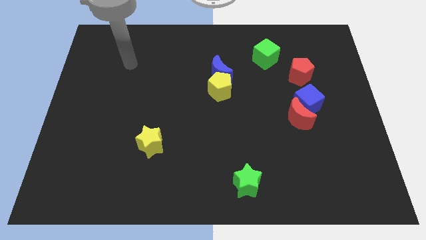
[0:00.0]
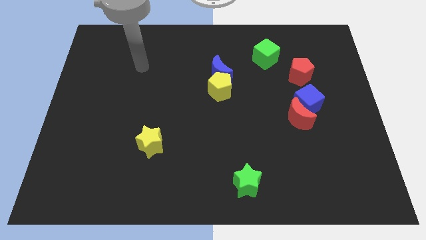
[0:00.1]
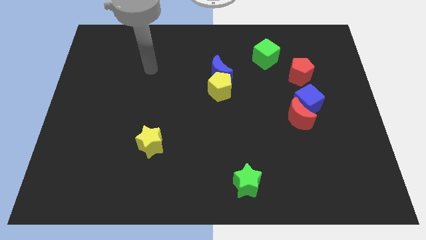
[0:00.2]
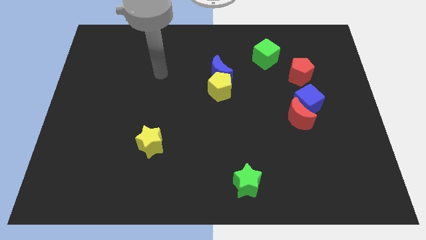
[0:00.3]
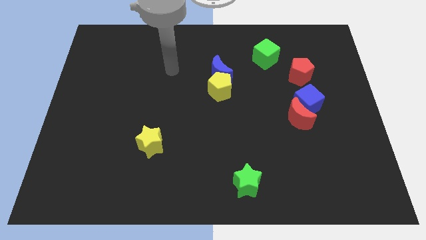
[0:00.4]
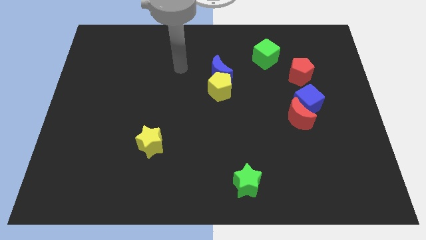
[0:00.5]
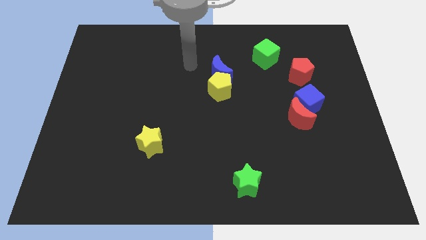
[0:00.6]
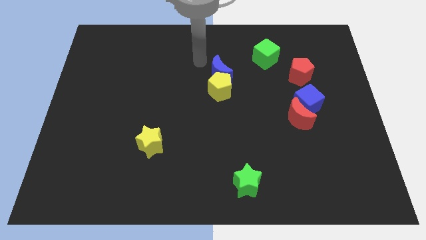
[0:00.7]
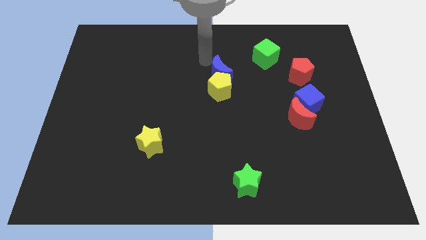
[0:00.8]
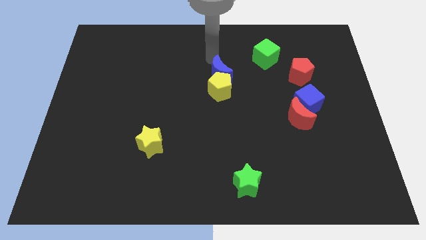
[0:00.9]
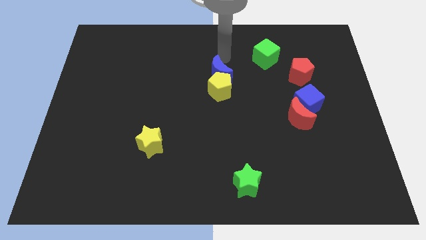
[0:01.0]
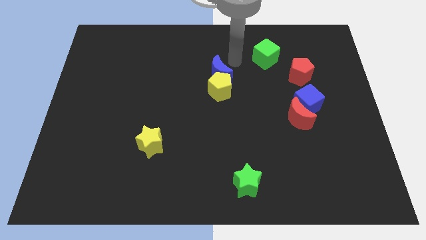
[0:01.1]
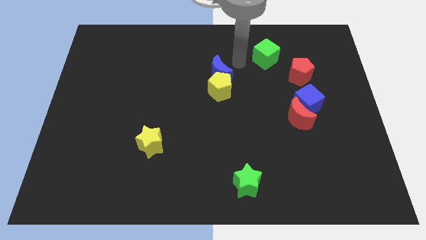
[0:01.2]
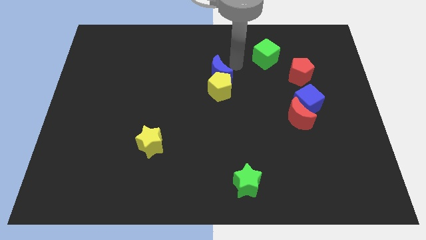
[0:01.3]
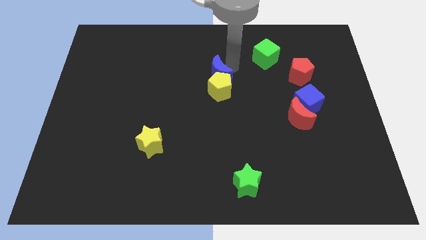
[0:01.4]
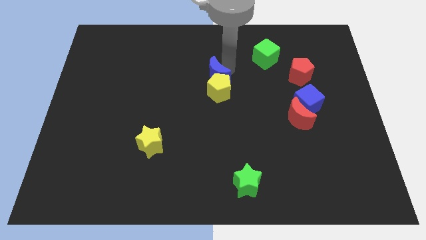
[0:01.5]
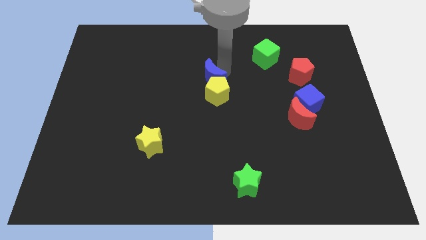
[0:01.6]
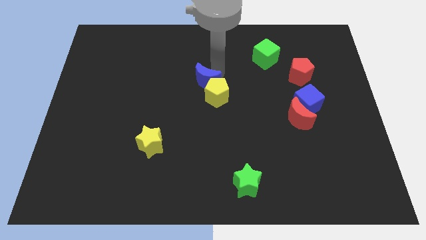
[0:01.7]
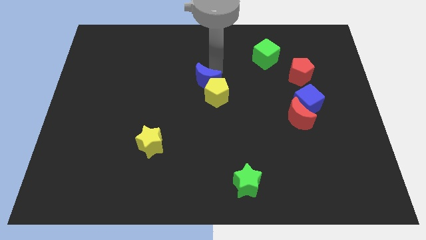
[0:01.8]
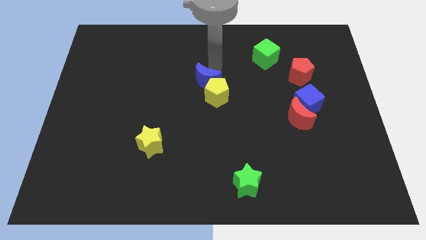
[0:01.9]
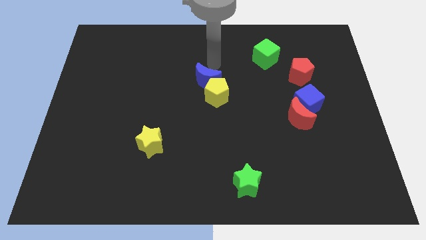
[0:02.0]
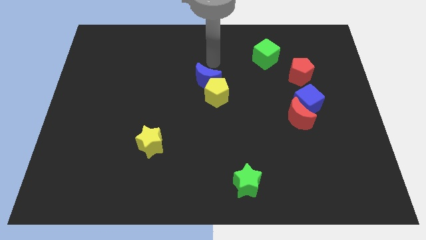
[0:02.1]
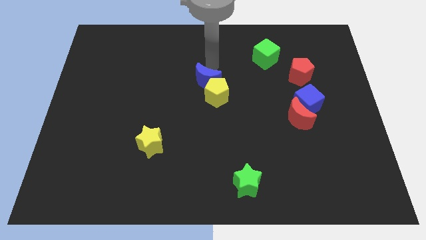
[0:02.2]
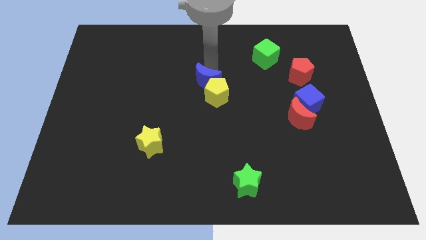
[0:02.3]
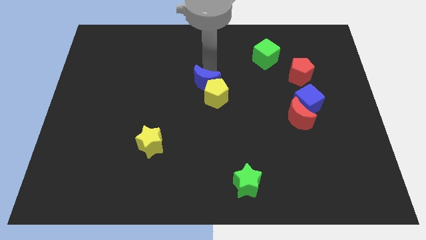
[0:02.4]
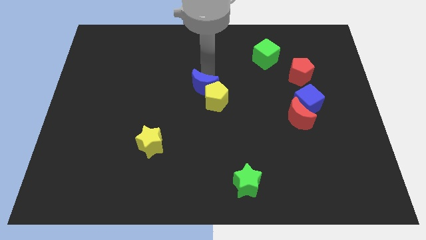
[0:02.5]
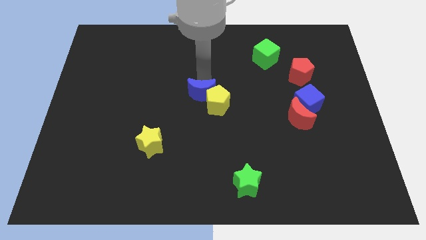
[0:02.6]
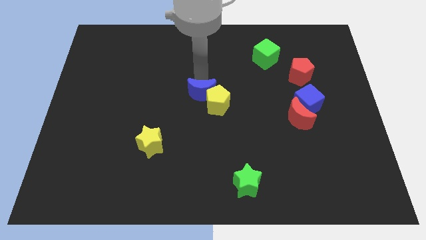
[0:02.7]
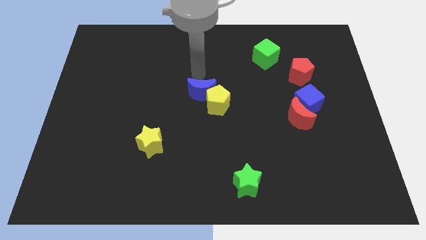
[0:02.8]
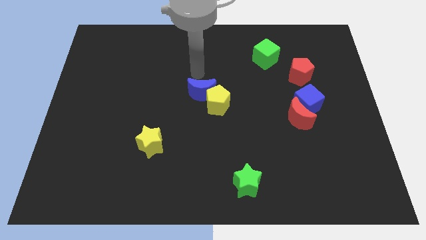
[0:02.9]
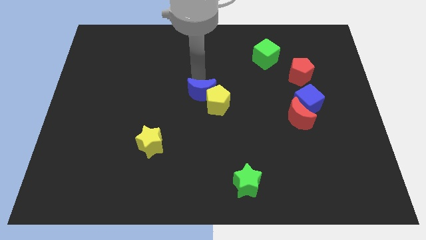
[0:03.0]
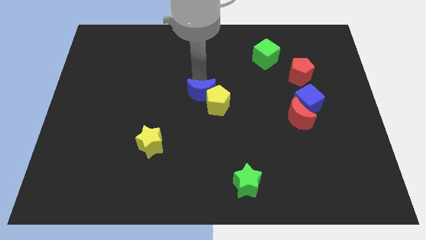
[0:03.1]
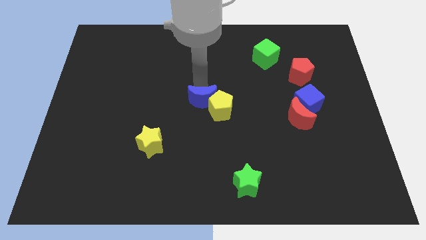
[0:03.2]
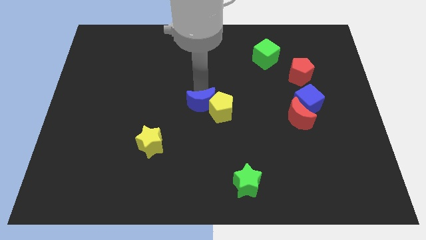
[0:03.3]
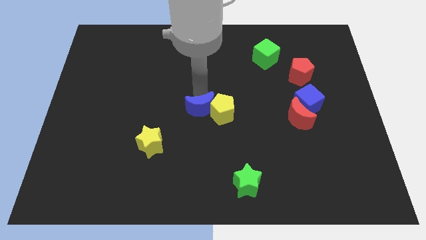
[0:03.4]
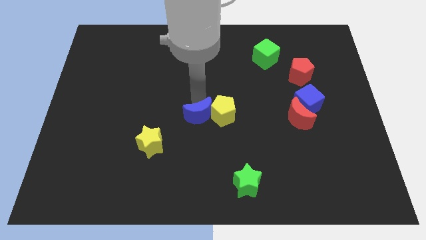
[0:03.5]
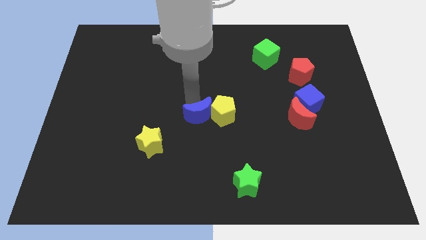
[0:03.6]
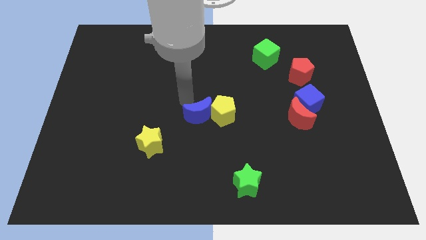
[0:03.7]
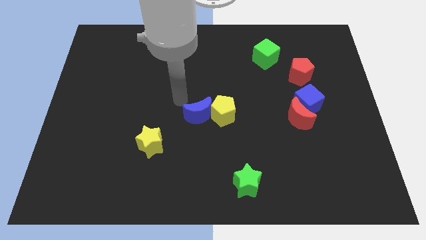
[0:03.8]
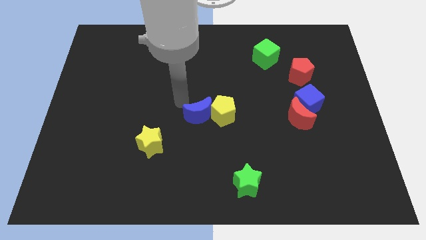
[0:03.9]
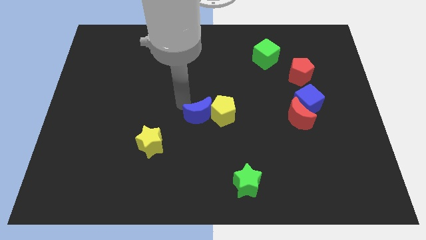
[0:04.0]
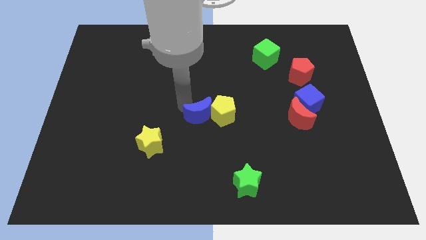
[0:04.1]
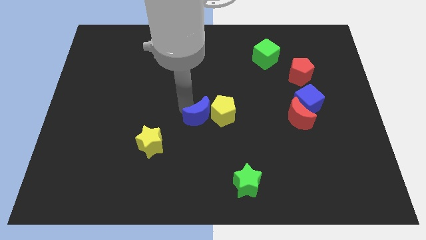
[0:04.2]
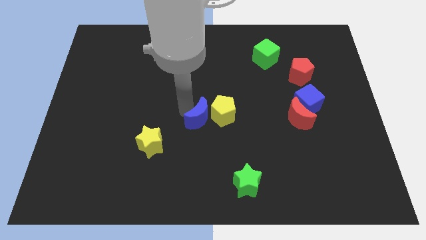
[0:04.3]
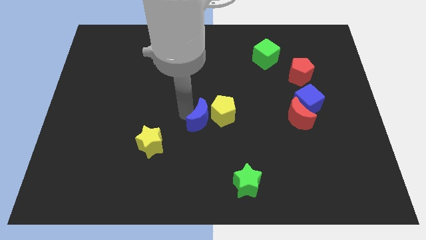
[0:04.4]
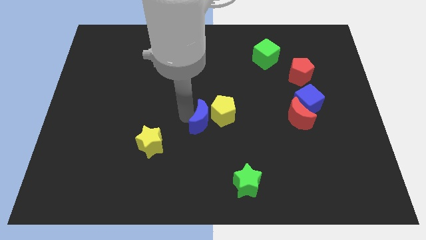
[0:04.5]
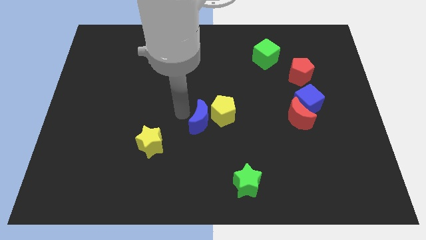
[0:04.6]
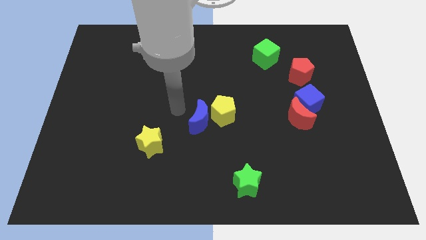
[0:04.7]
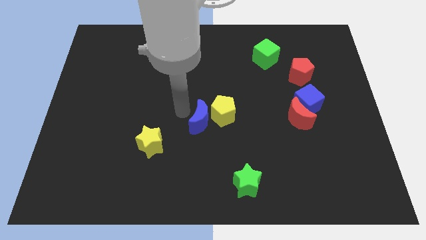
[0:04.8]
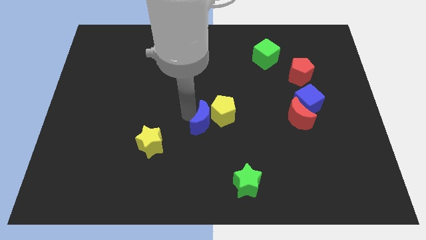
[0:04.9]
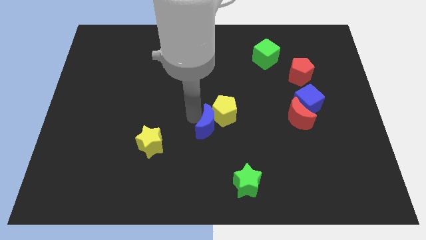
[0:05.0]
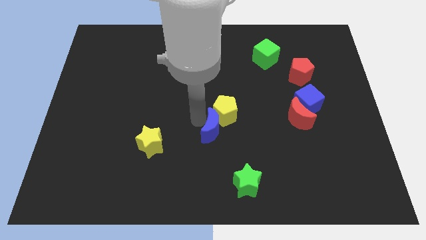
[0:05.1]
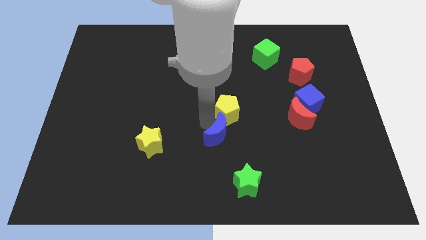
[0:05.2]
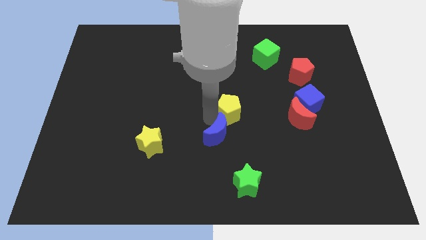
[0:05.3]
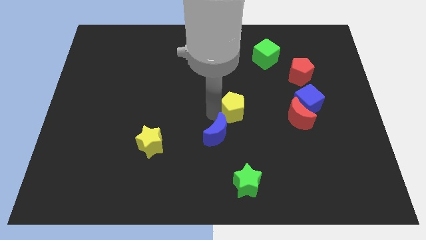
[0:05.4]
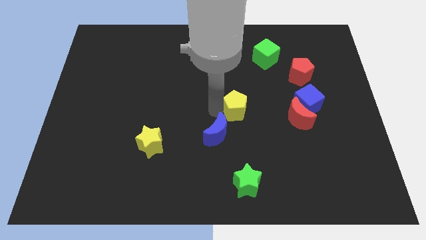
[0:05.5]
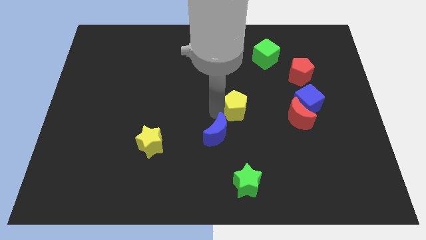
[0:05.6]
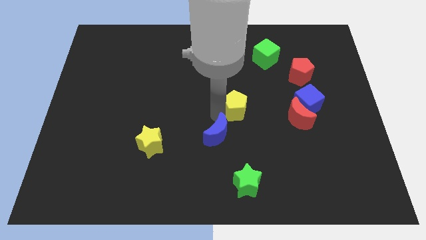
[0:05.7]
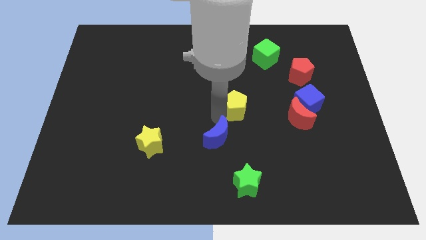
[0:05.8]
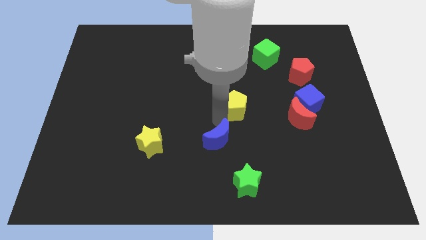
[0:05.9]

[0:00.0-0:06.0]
slide the blue moon to the top left side of the green star

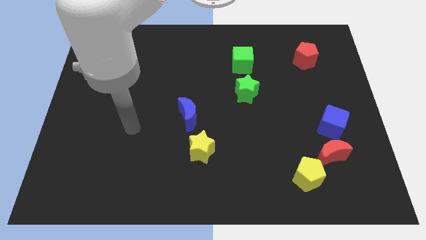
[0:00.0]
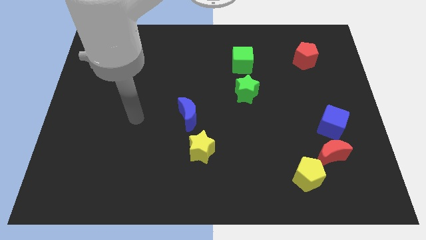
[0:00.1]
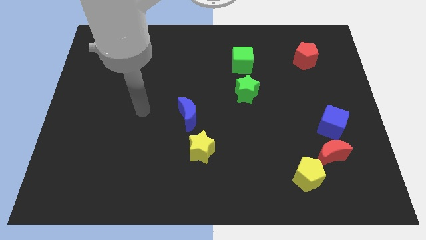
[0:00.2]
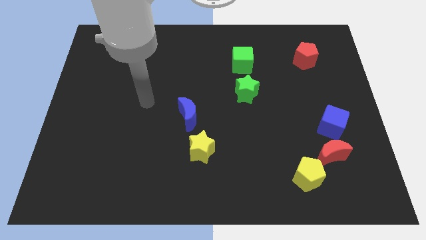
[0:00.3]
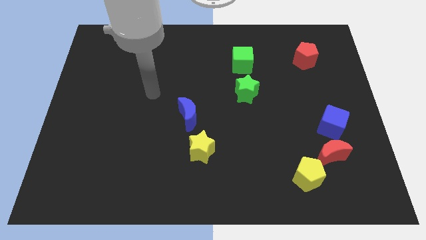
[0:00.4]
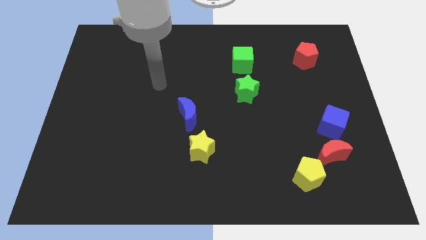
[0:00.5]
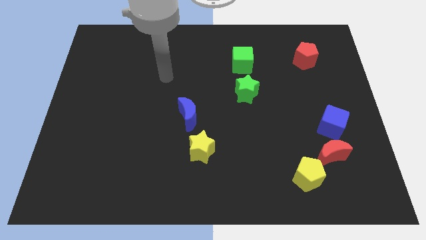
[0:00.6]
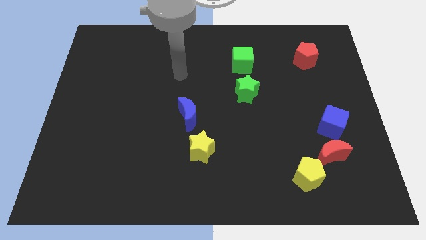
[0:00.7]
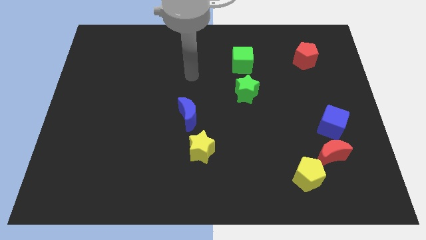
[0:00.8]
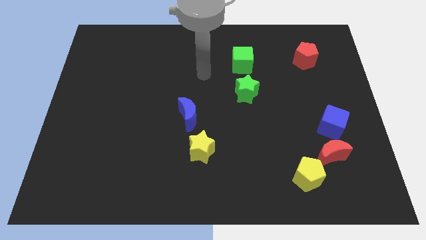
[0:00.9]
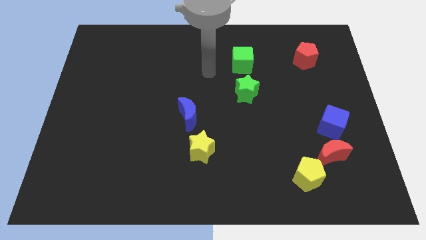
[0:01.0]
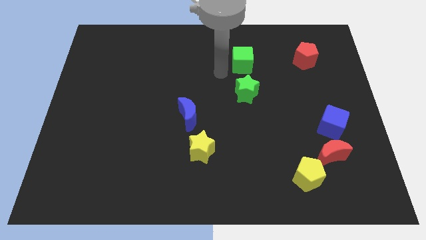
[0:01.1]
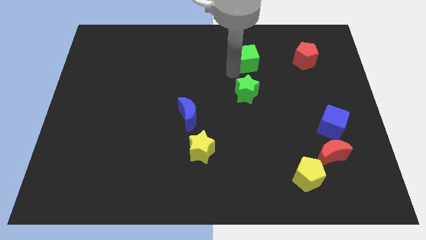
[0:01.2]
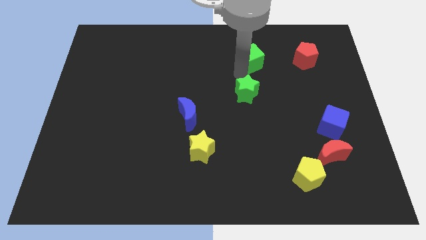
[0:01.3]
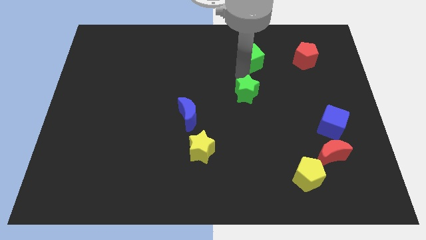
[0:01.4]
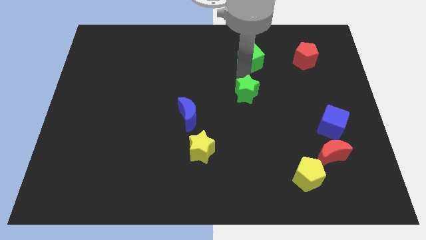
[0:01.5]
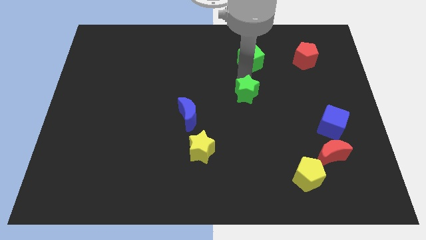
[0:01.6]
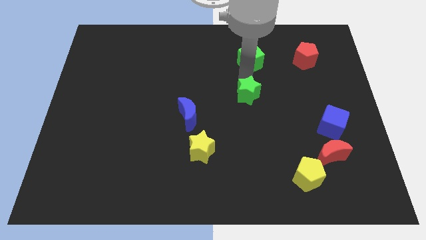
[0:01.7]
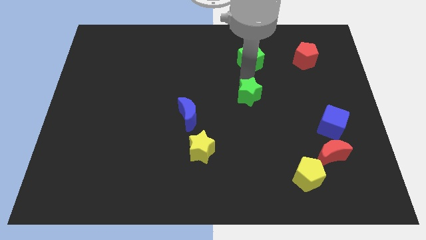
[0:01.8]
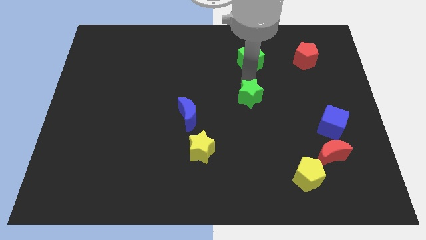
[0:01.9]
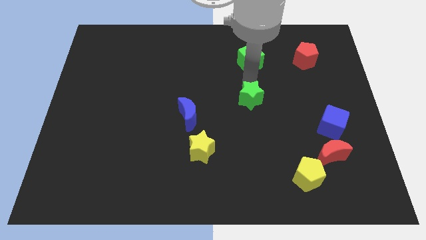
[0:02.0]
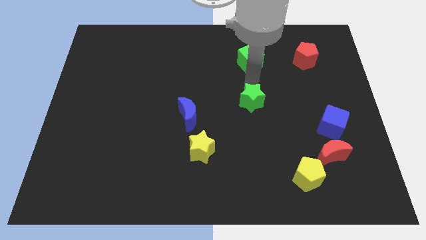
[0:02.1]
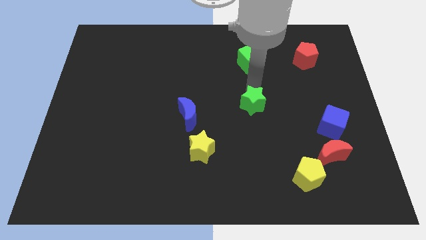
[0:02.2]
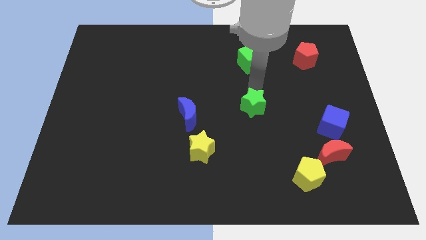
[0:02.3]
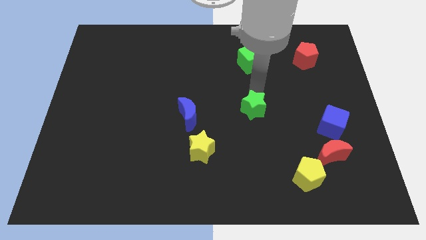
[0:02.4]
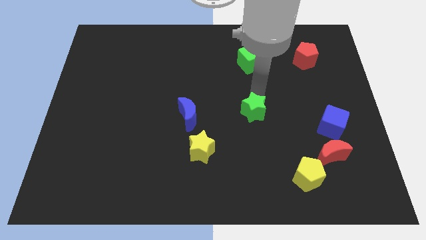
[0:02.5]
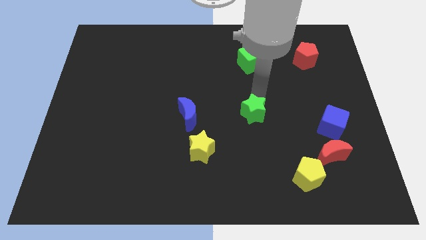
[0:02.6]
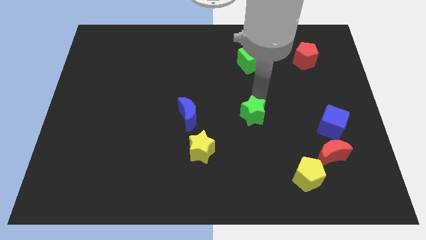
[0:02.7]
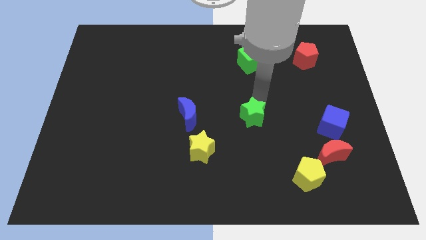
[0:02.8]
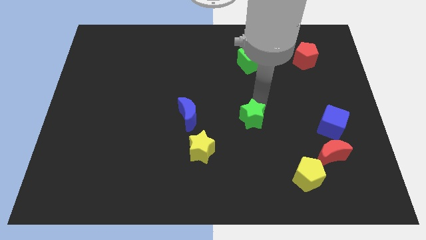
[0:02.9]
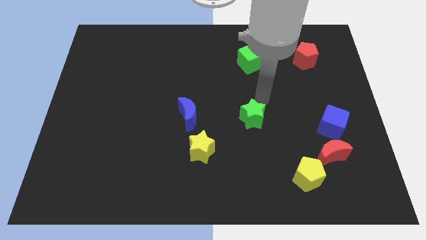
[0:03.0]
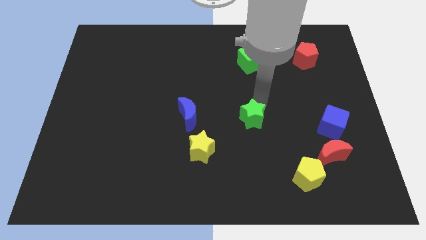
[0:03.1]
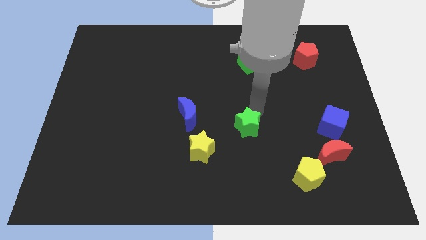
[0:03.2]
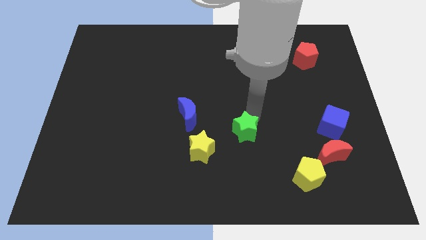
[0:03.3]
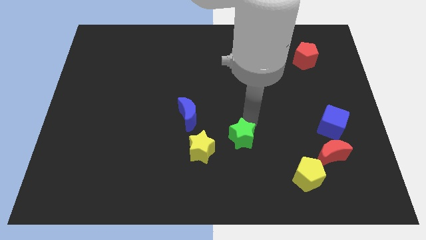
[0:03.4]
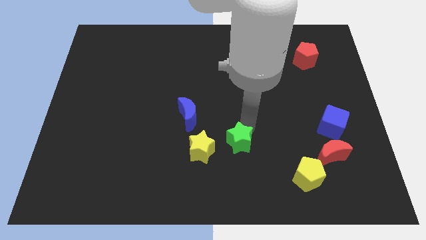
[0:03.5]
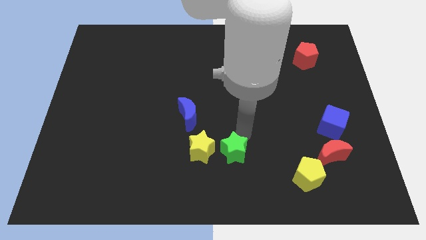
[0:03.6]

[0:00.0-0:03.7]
slide the green star diagonally down and to the right of the yellow star
